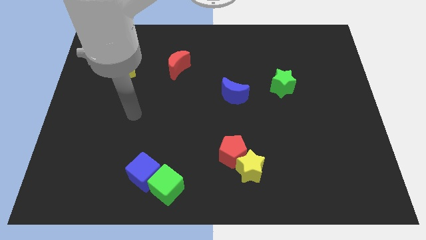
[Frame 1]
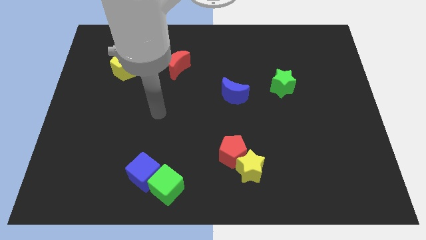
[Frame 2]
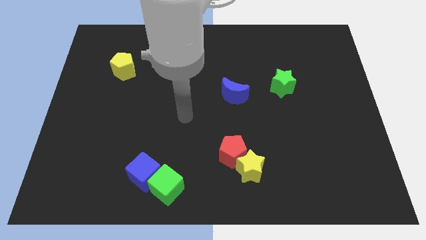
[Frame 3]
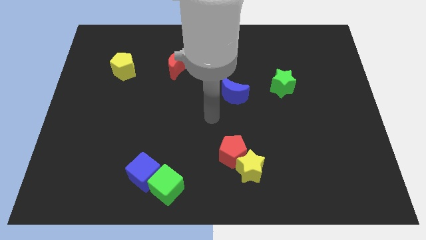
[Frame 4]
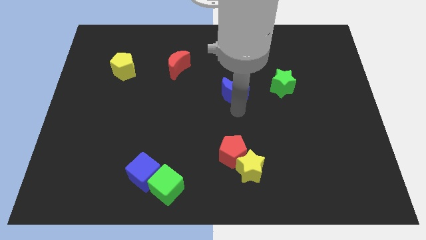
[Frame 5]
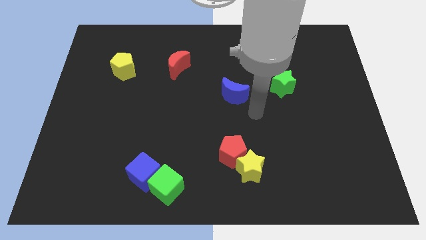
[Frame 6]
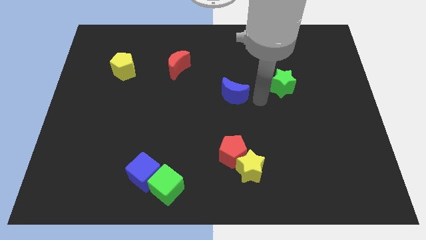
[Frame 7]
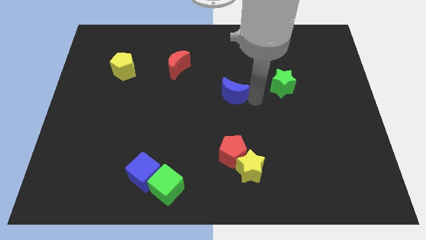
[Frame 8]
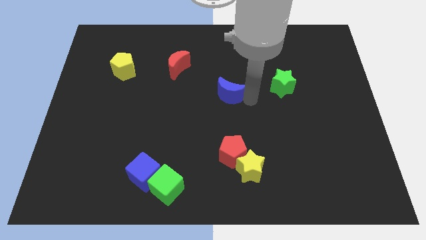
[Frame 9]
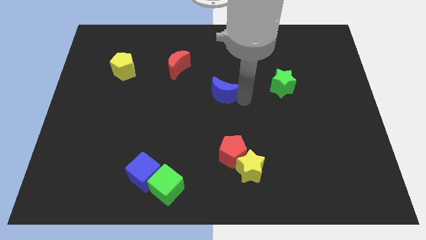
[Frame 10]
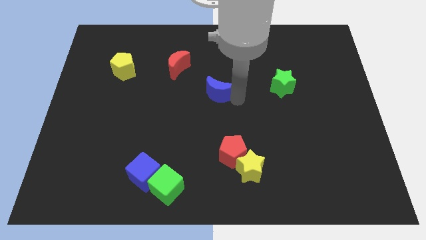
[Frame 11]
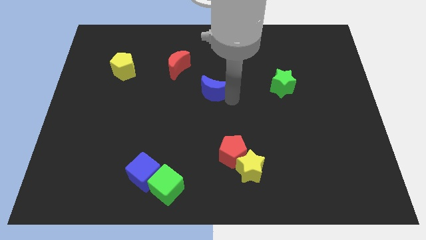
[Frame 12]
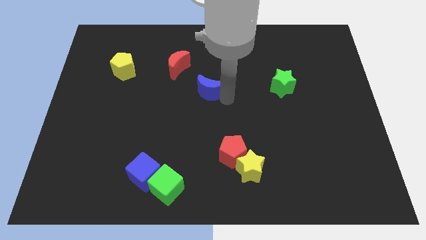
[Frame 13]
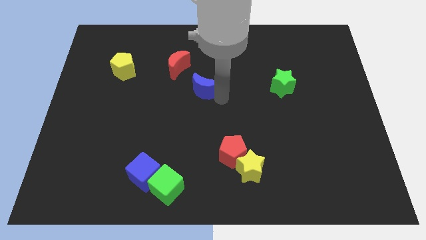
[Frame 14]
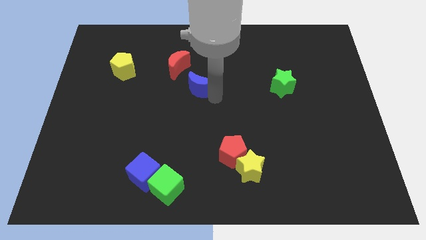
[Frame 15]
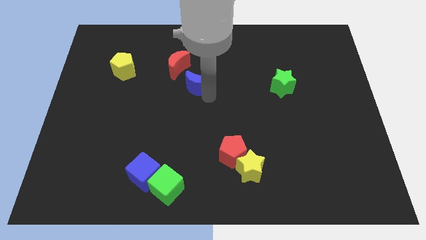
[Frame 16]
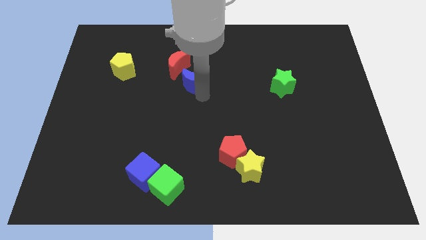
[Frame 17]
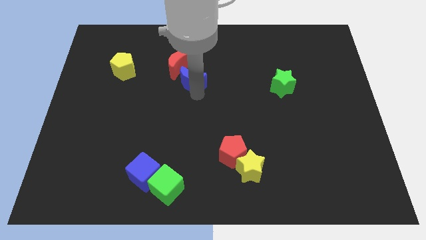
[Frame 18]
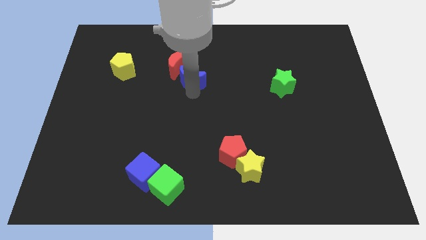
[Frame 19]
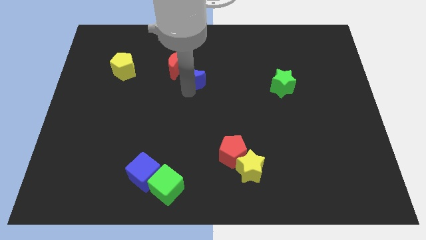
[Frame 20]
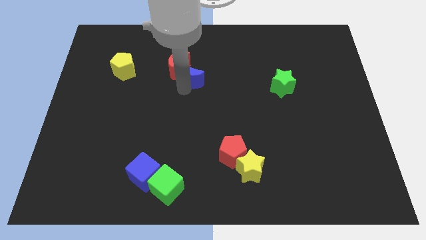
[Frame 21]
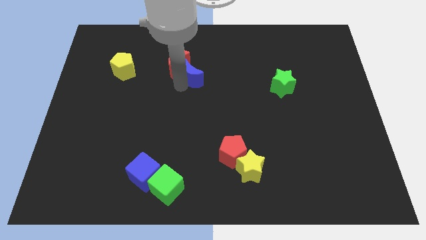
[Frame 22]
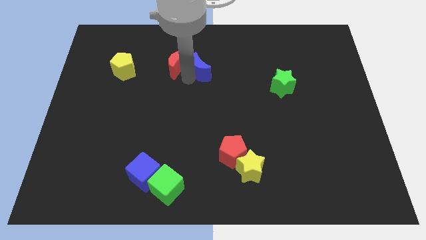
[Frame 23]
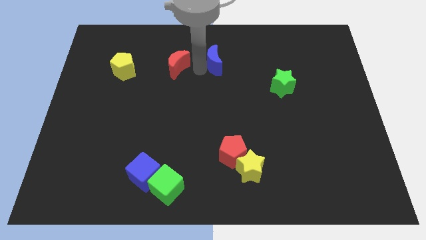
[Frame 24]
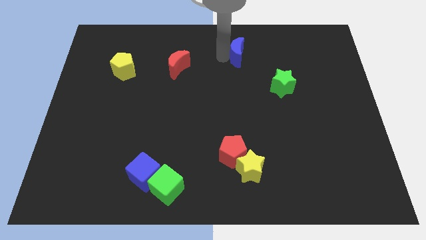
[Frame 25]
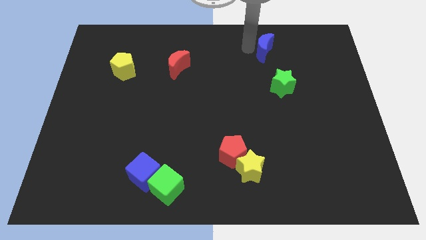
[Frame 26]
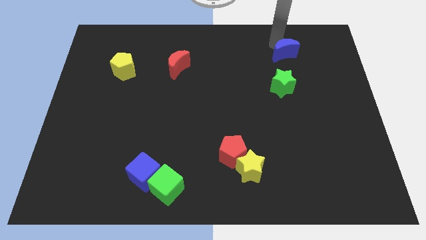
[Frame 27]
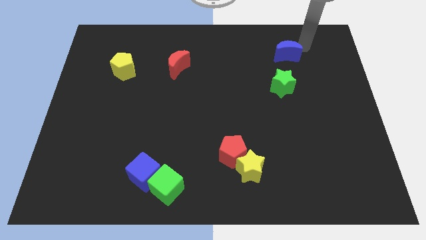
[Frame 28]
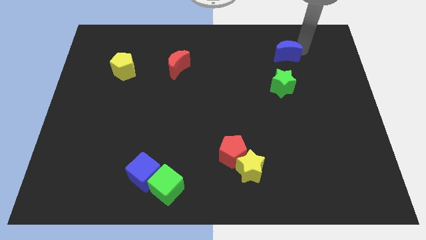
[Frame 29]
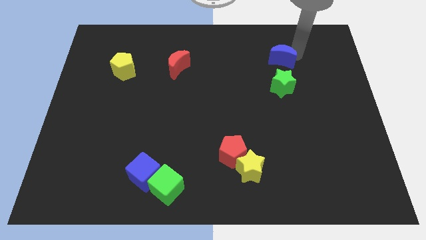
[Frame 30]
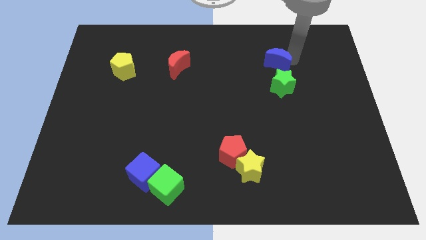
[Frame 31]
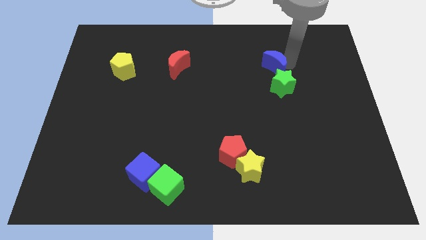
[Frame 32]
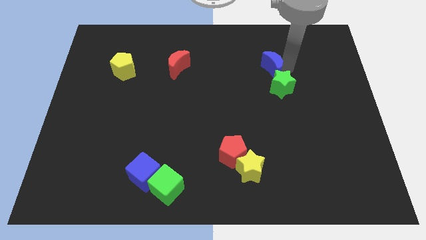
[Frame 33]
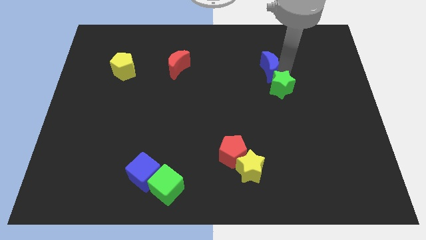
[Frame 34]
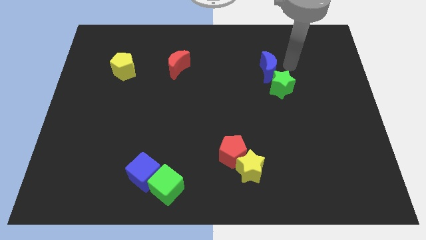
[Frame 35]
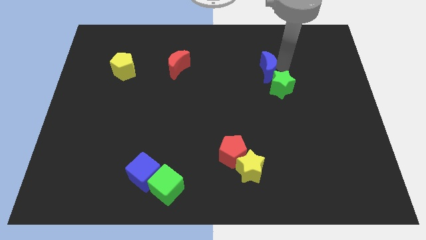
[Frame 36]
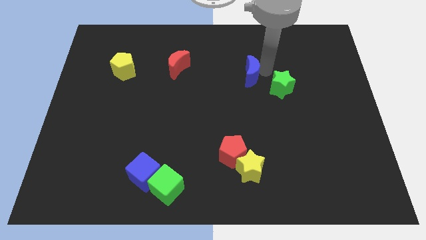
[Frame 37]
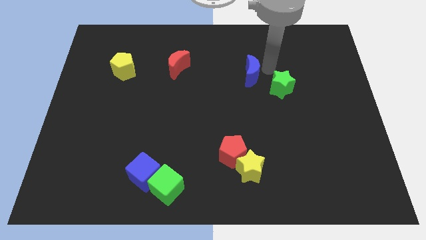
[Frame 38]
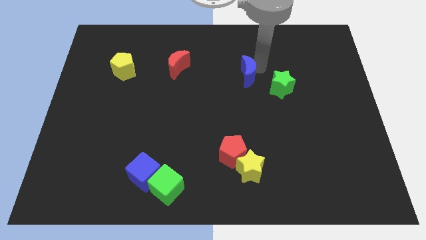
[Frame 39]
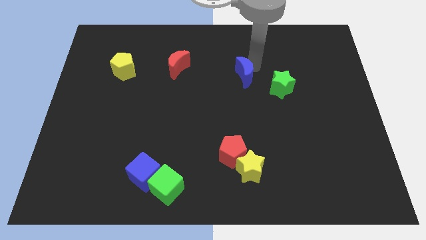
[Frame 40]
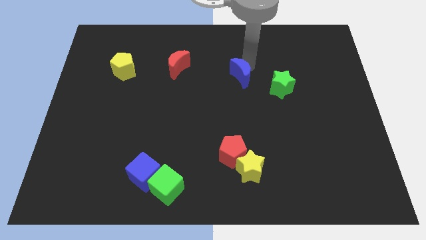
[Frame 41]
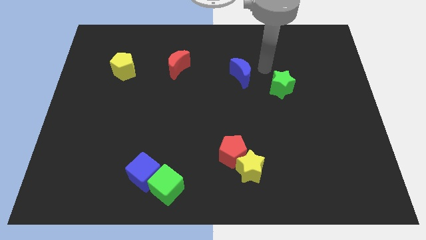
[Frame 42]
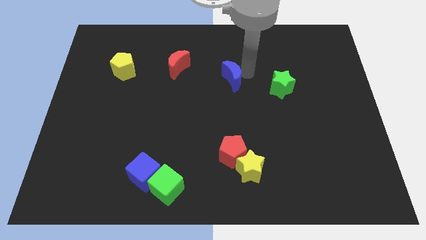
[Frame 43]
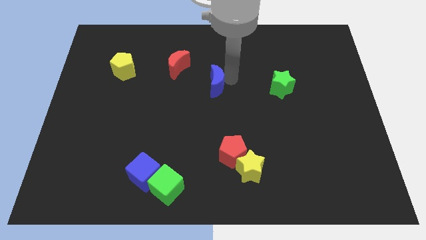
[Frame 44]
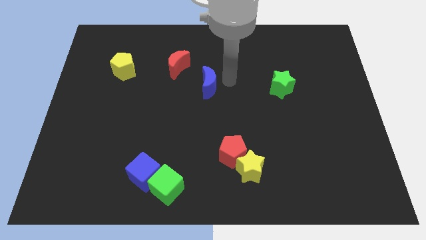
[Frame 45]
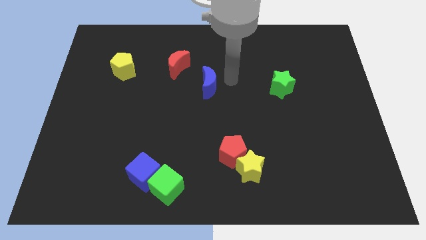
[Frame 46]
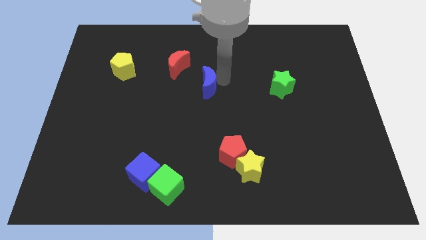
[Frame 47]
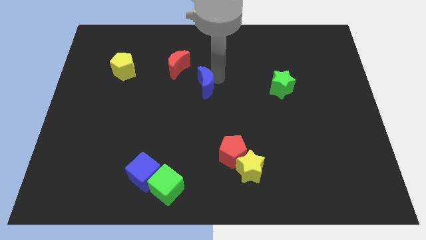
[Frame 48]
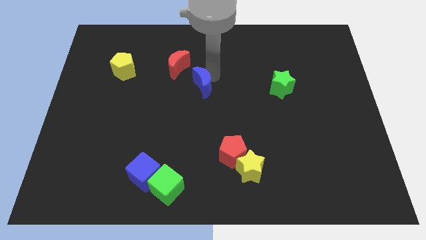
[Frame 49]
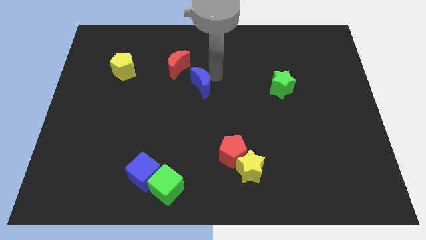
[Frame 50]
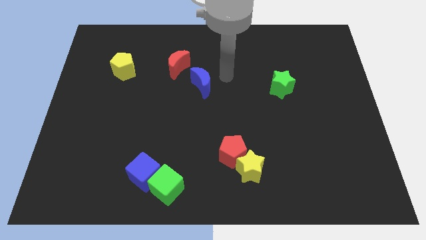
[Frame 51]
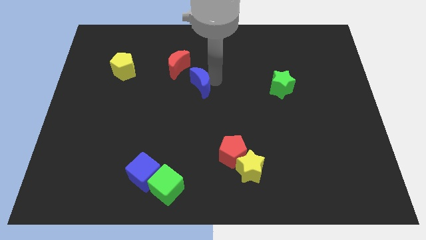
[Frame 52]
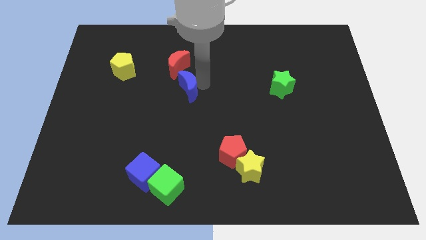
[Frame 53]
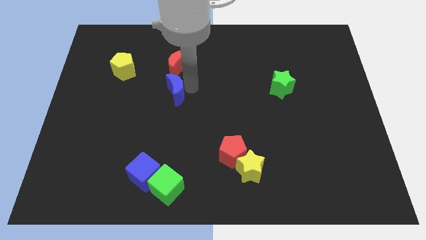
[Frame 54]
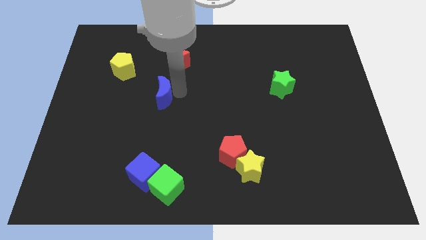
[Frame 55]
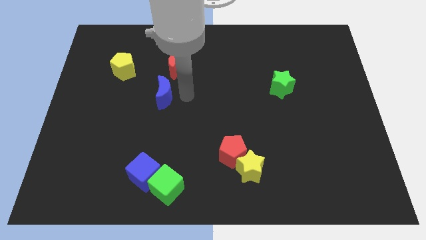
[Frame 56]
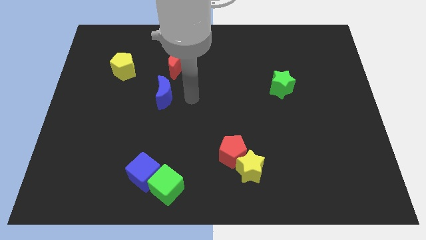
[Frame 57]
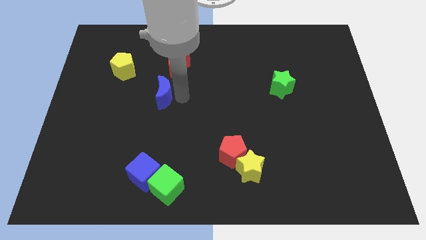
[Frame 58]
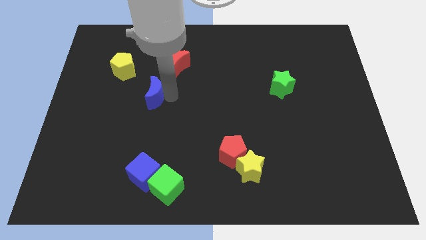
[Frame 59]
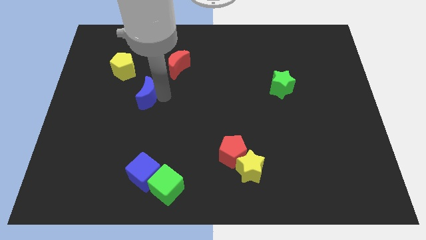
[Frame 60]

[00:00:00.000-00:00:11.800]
move the blue moon to the left

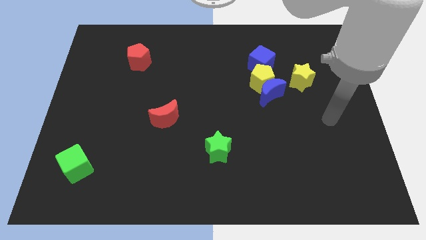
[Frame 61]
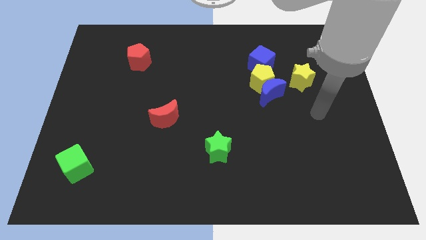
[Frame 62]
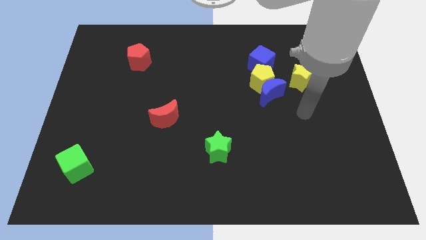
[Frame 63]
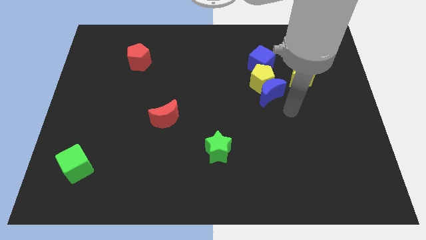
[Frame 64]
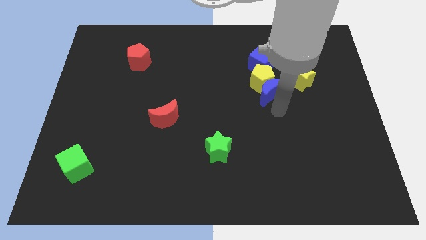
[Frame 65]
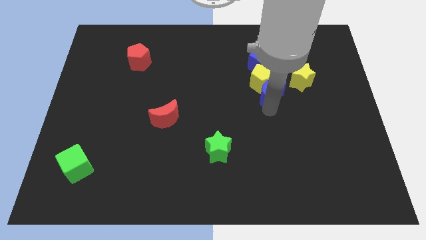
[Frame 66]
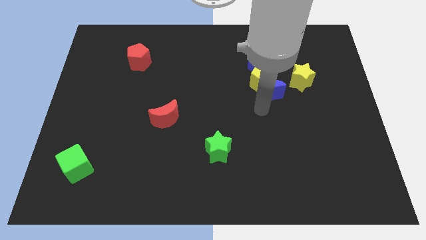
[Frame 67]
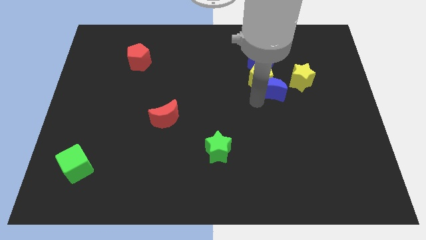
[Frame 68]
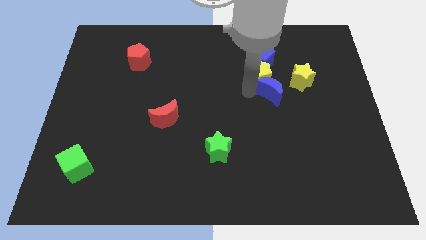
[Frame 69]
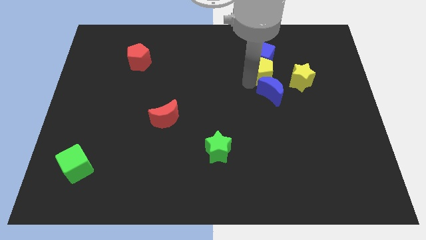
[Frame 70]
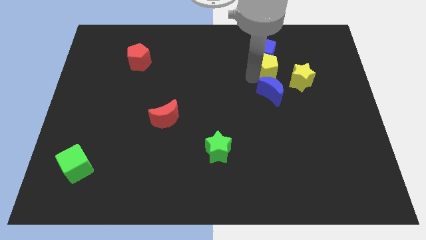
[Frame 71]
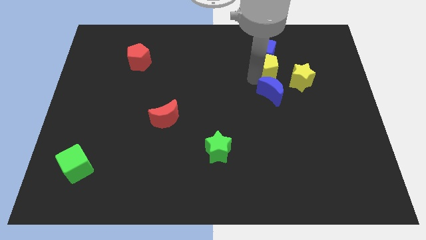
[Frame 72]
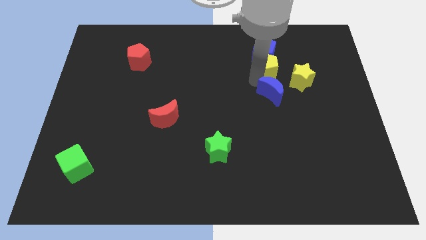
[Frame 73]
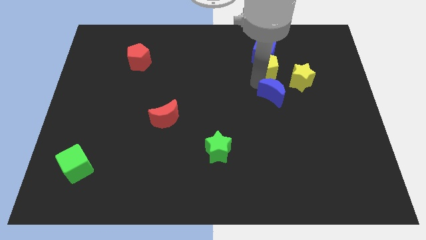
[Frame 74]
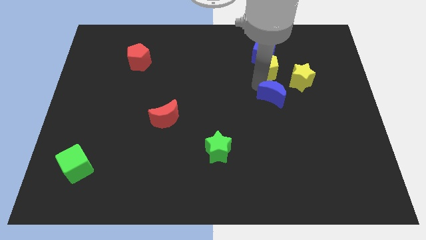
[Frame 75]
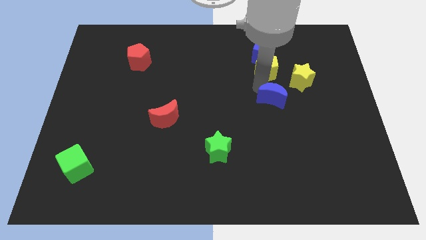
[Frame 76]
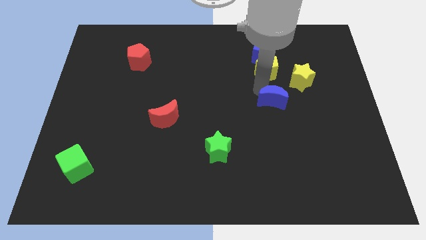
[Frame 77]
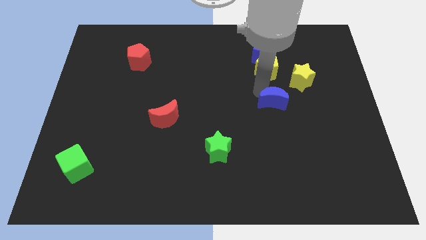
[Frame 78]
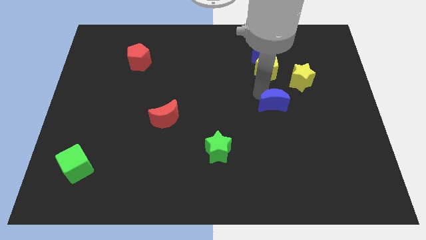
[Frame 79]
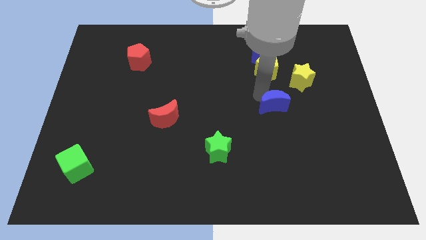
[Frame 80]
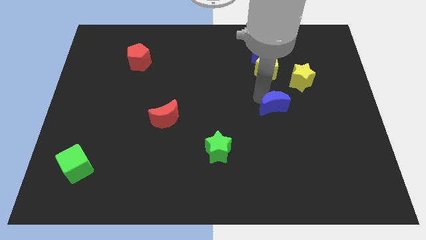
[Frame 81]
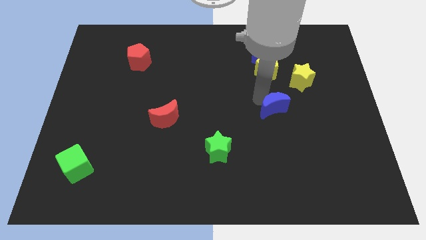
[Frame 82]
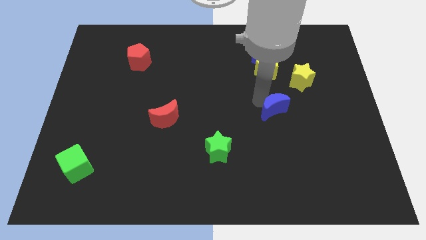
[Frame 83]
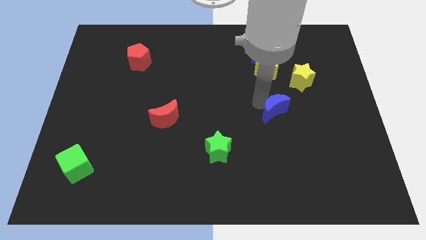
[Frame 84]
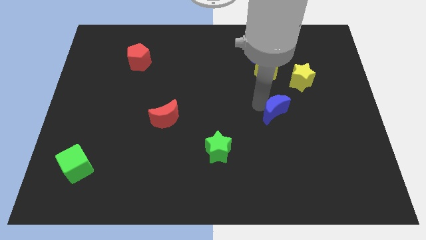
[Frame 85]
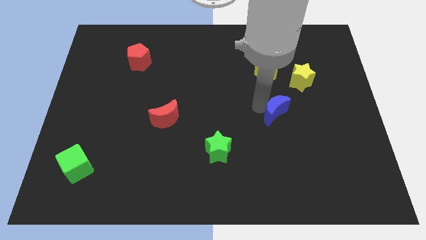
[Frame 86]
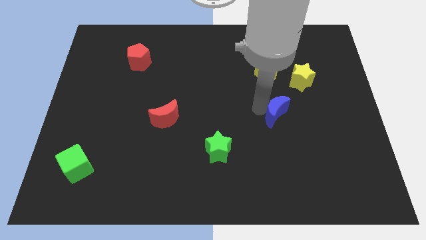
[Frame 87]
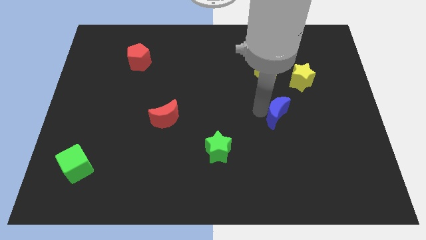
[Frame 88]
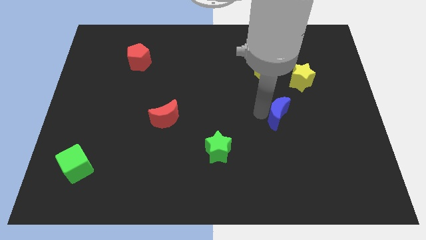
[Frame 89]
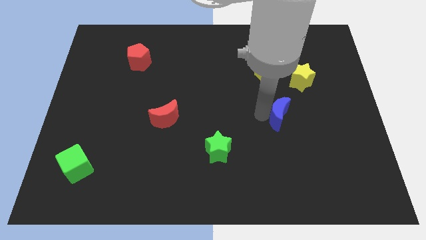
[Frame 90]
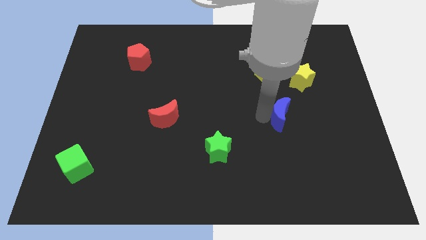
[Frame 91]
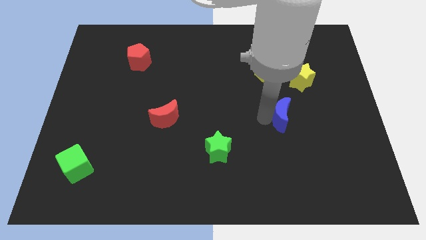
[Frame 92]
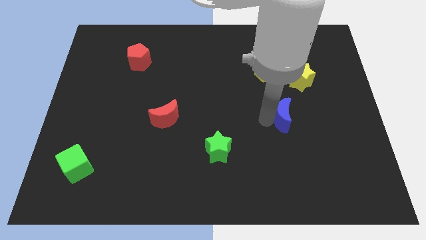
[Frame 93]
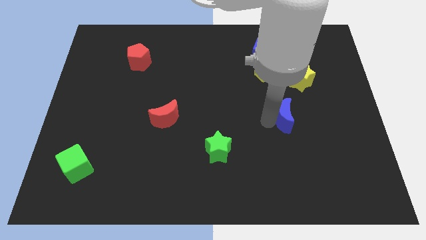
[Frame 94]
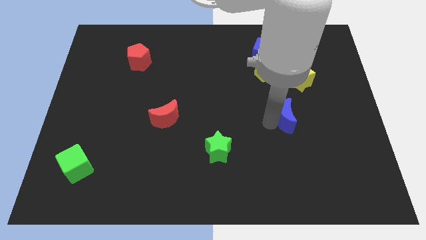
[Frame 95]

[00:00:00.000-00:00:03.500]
push the blue moon down and to the right slightly
